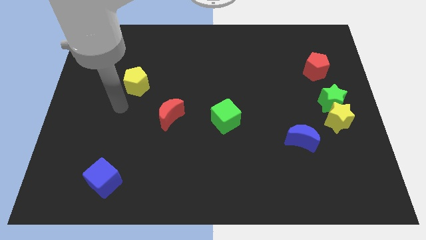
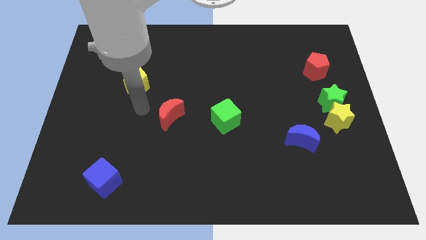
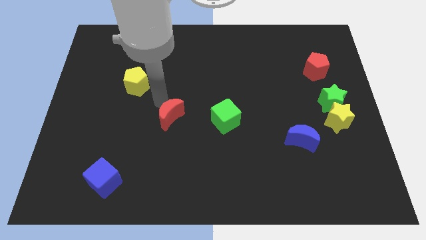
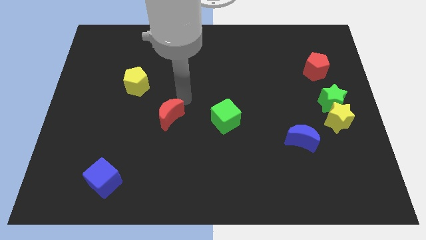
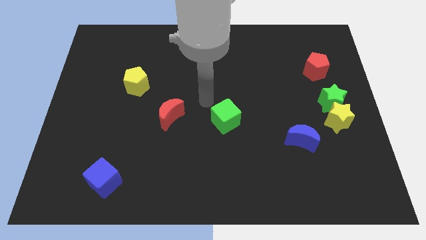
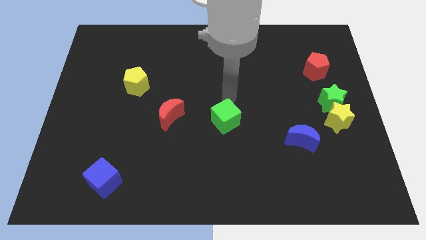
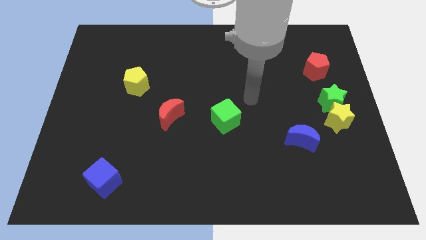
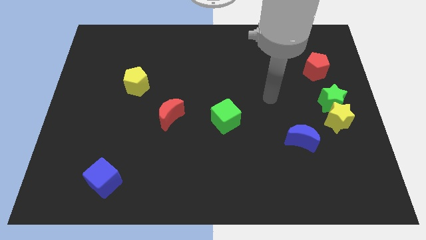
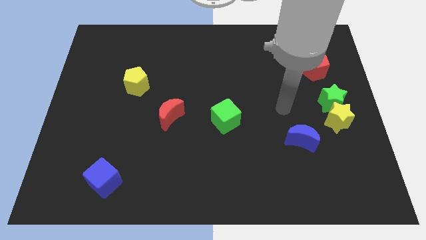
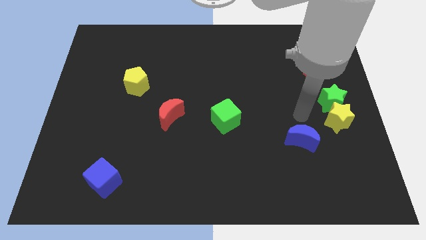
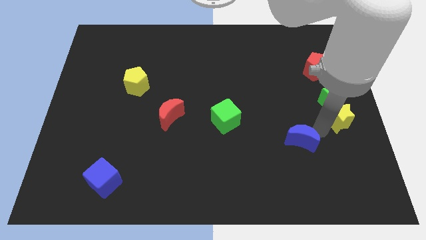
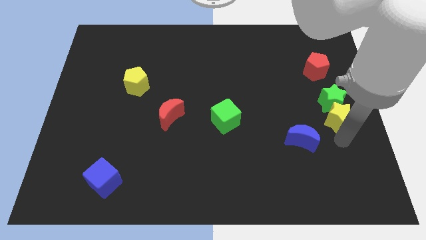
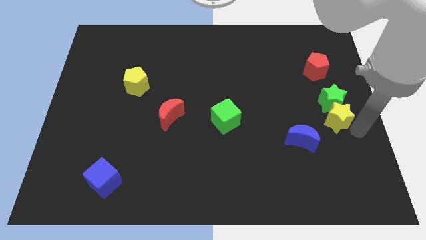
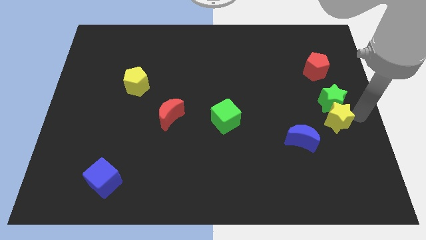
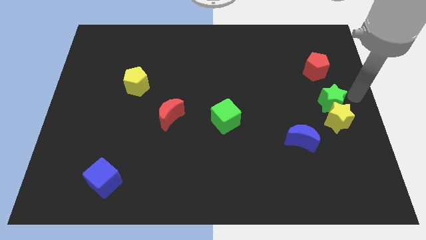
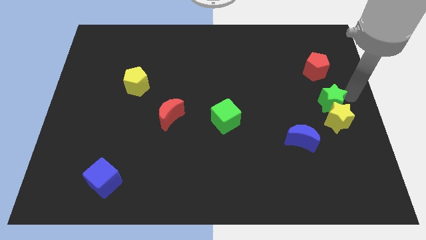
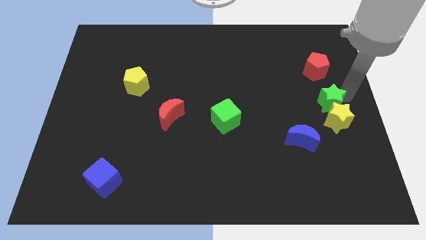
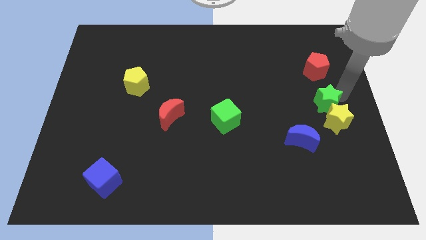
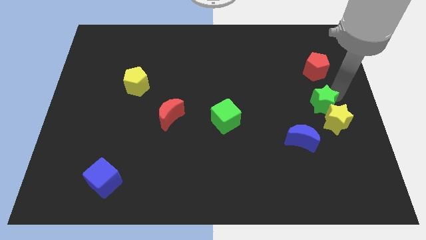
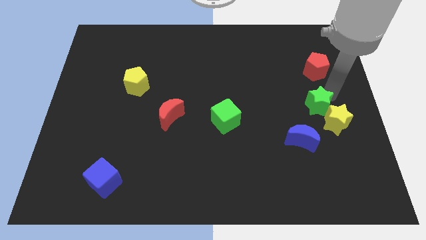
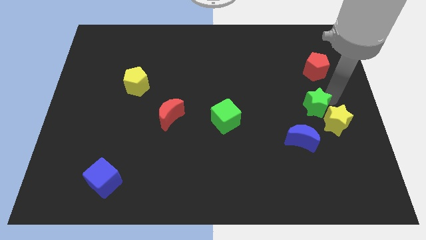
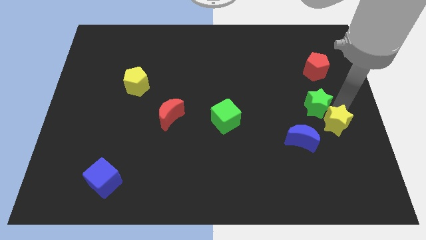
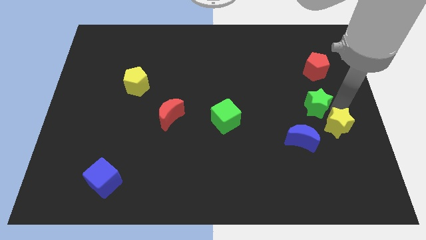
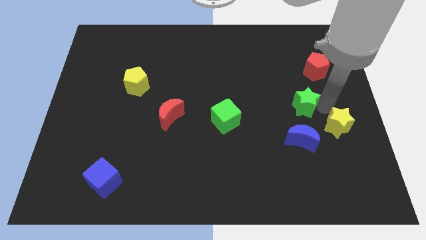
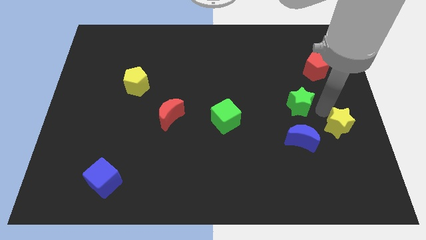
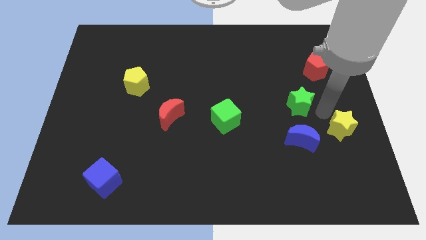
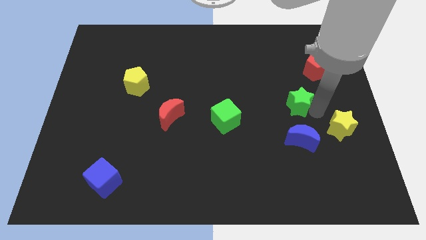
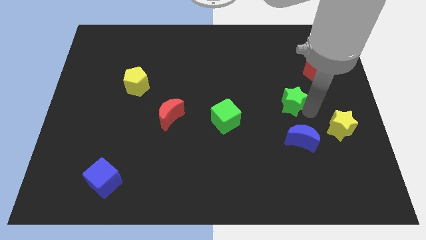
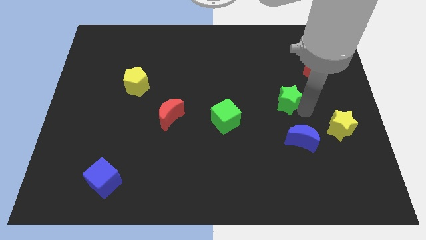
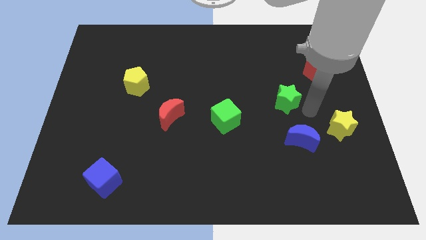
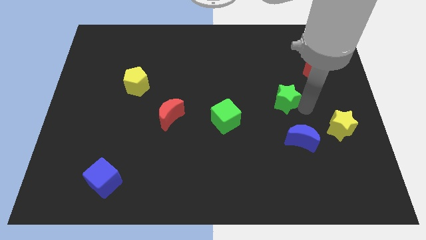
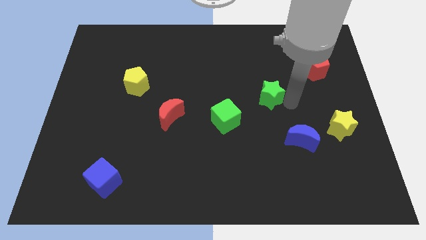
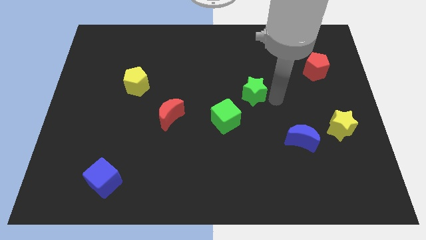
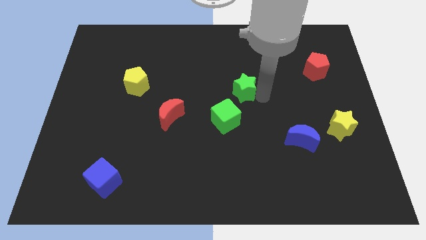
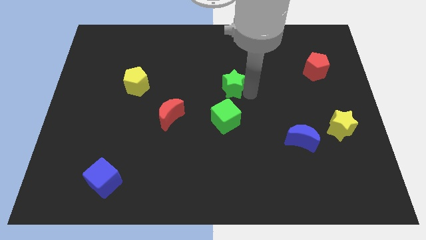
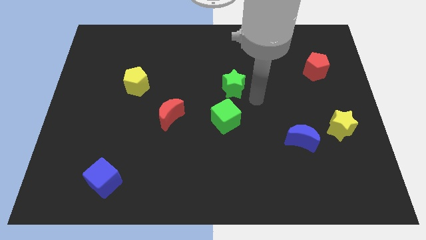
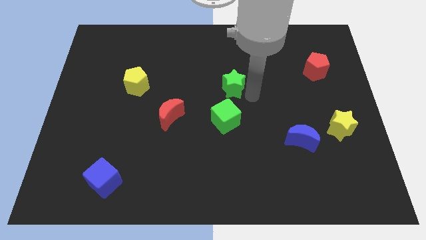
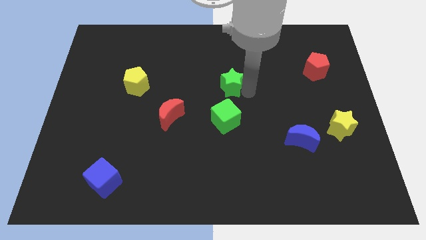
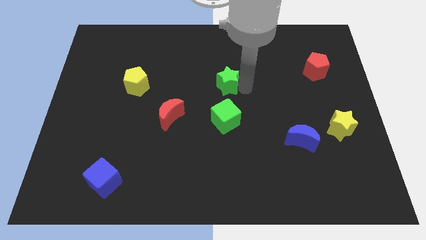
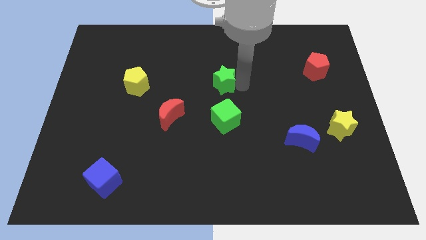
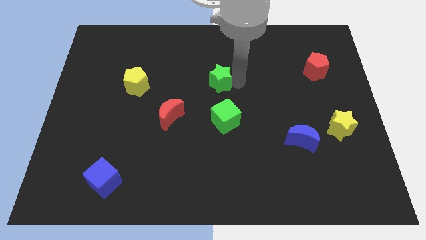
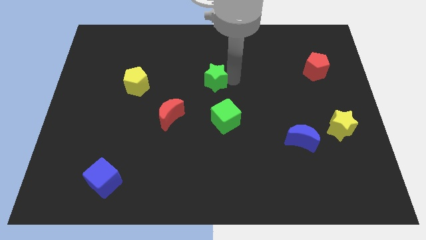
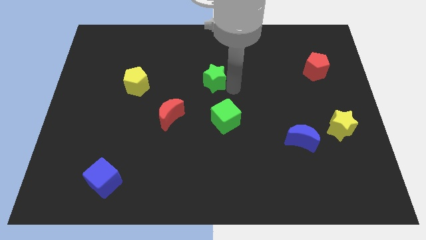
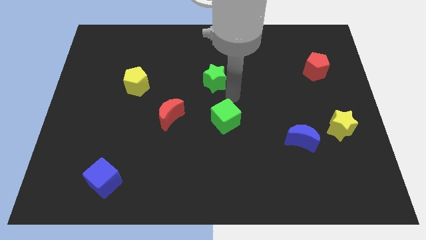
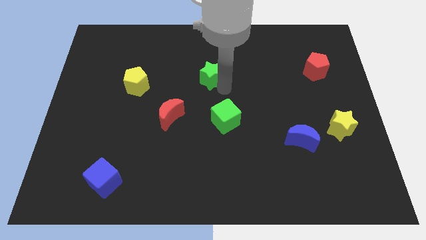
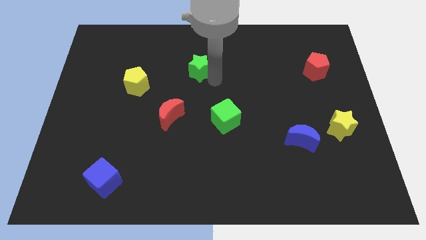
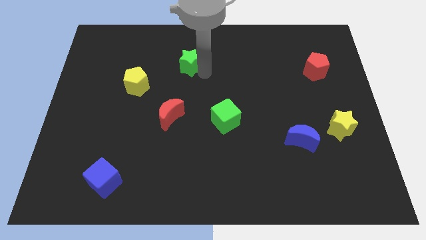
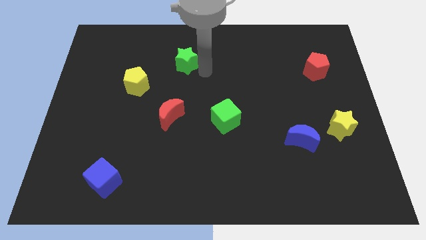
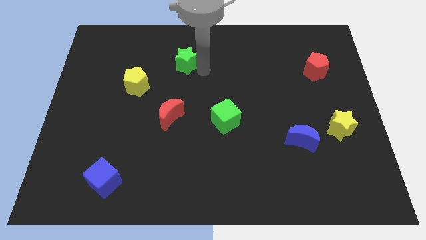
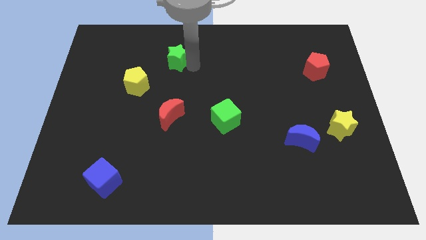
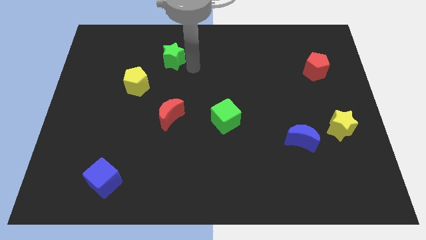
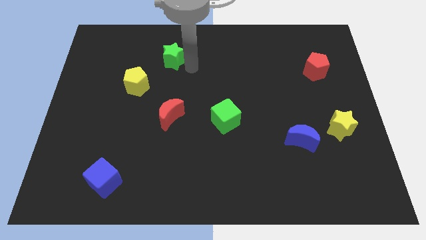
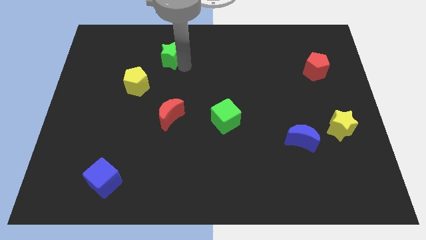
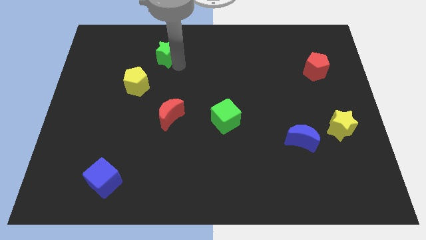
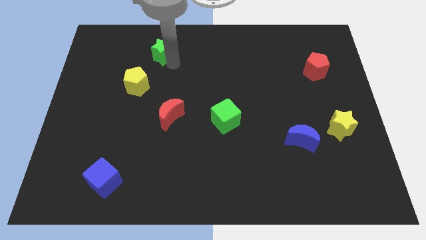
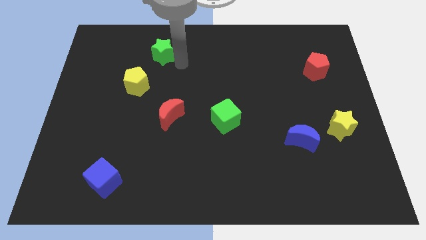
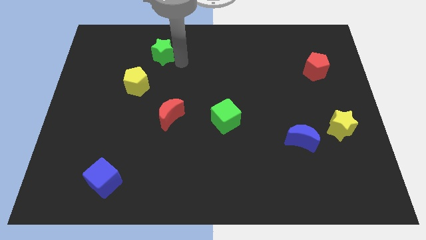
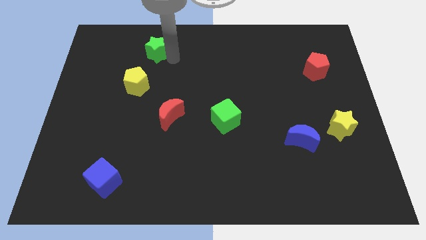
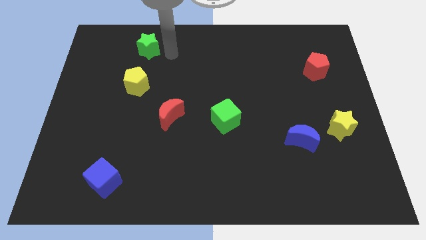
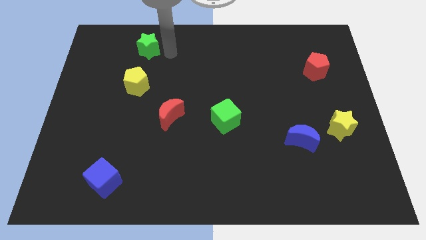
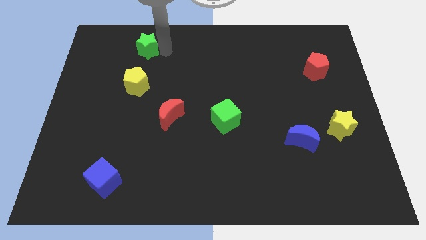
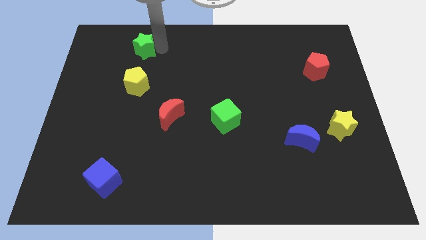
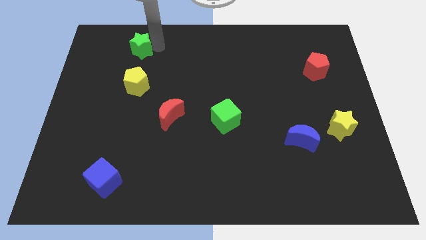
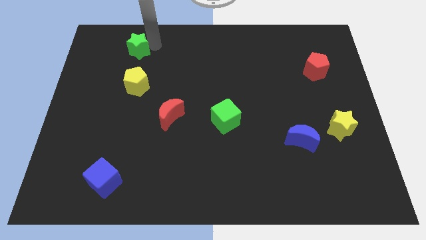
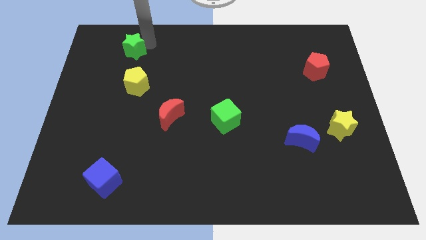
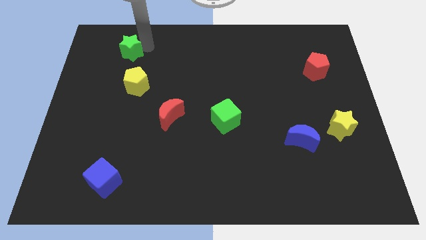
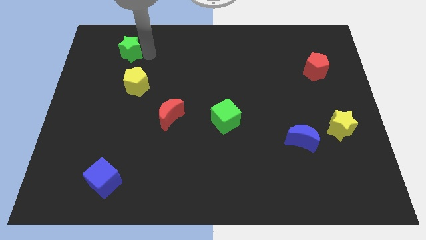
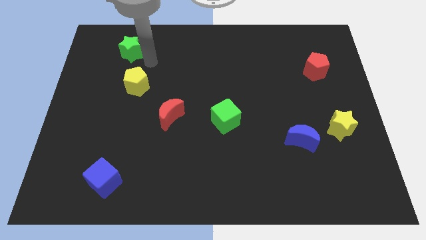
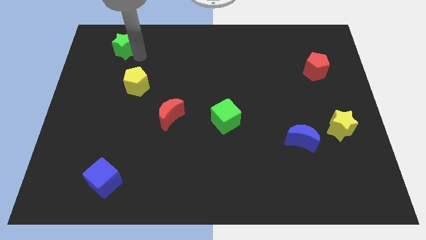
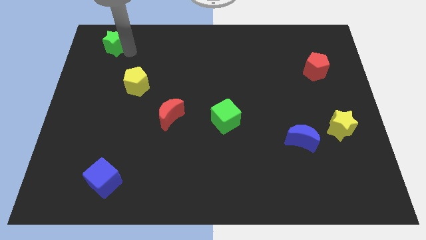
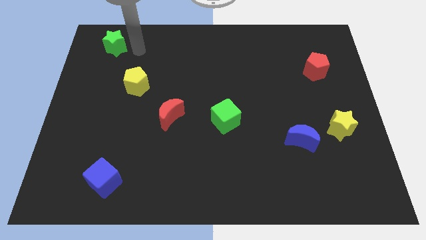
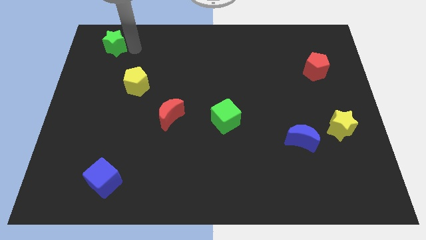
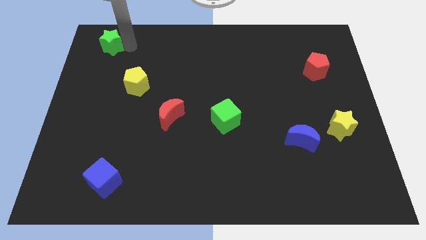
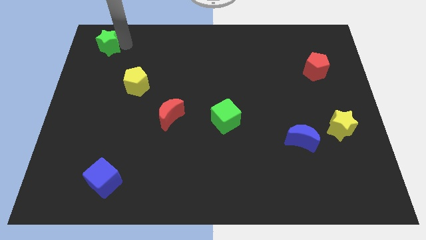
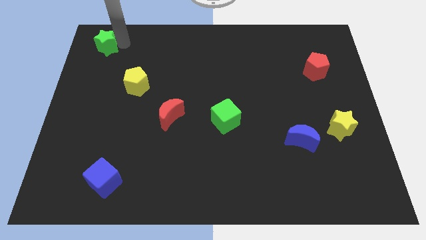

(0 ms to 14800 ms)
push the green star to the top left of the board
